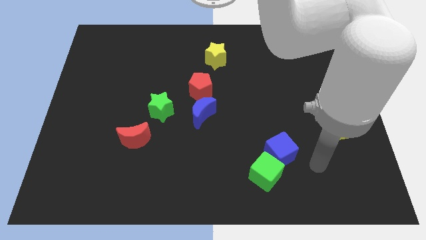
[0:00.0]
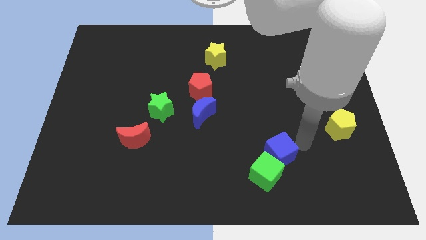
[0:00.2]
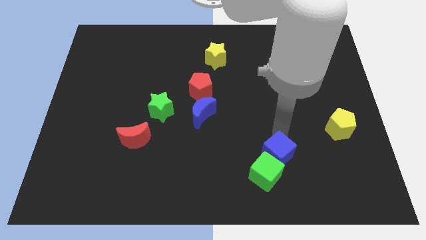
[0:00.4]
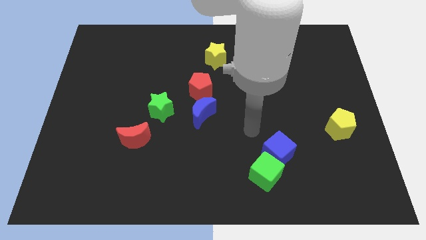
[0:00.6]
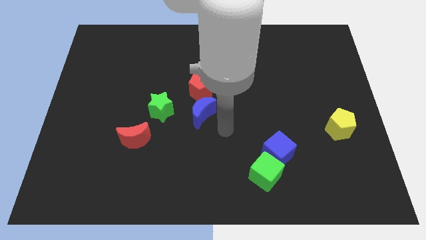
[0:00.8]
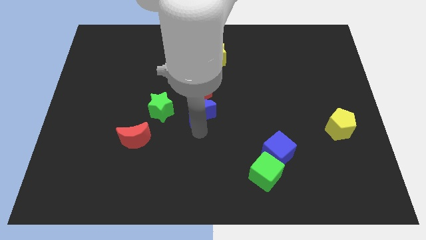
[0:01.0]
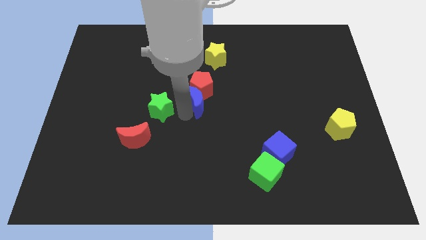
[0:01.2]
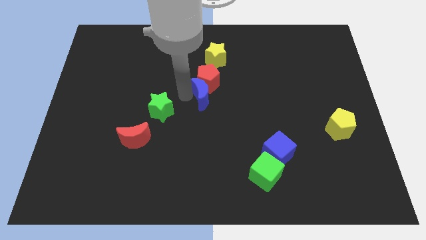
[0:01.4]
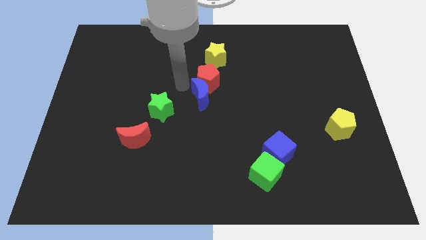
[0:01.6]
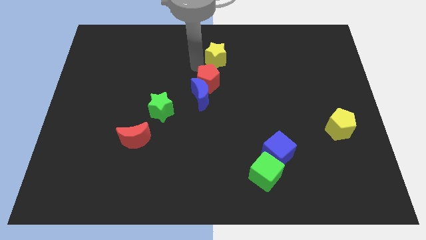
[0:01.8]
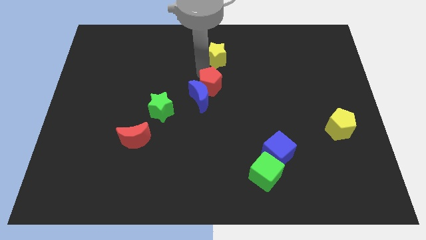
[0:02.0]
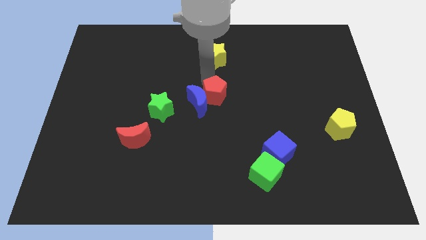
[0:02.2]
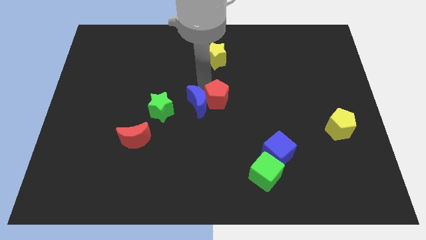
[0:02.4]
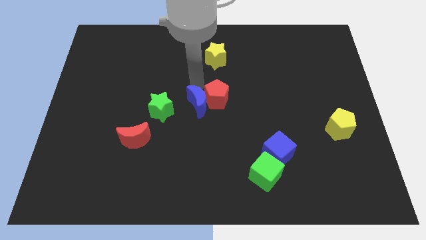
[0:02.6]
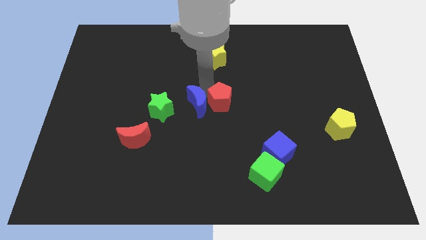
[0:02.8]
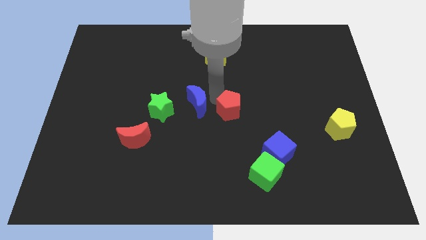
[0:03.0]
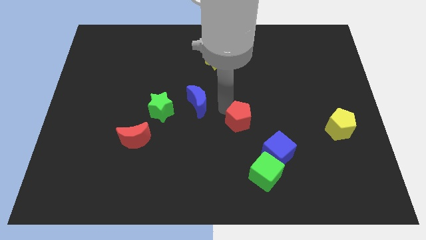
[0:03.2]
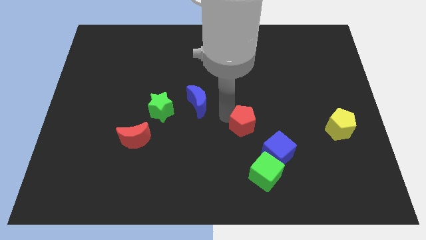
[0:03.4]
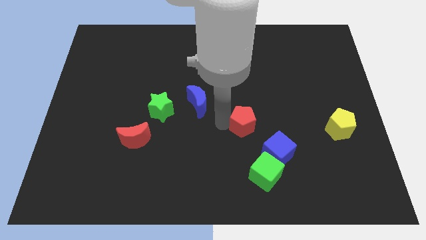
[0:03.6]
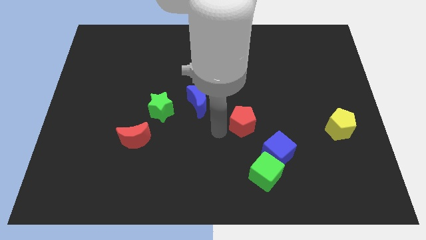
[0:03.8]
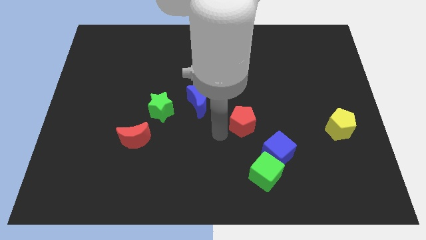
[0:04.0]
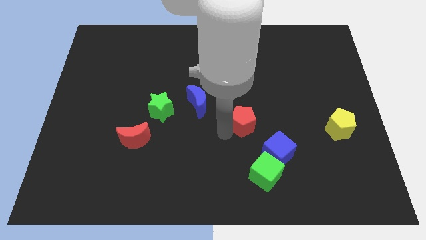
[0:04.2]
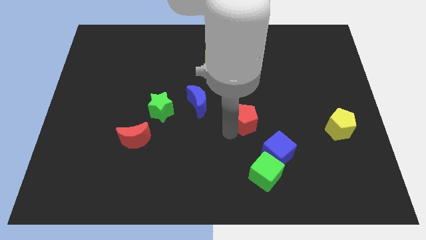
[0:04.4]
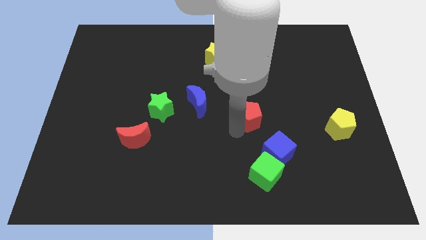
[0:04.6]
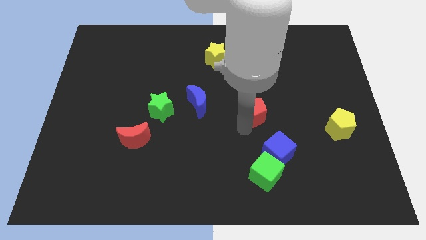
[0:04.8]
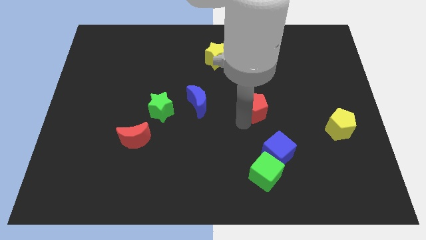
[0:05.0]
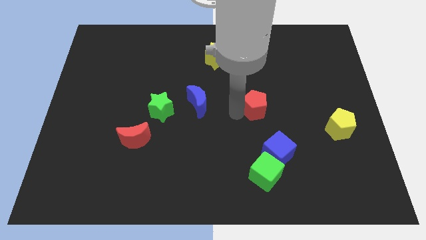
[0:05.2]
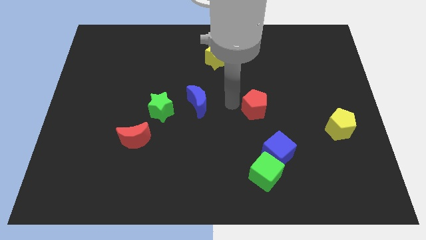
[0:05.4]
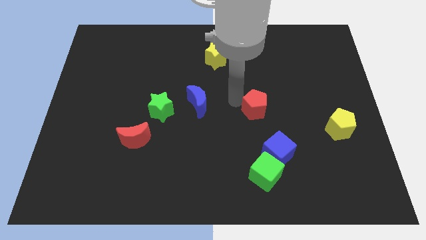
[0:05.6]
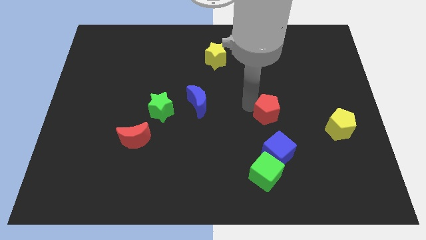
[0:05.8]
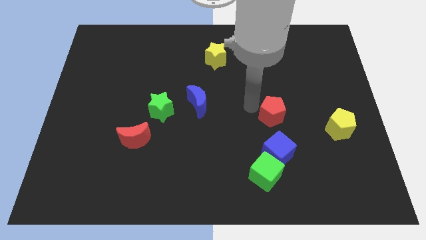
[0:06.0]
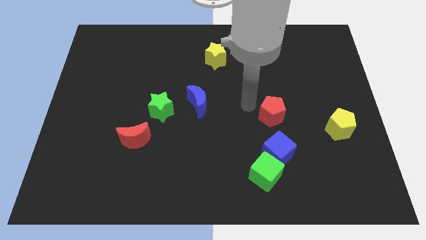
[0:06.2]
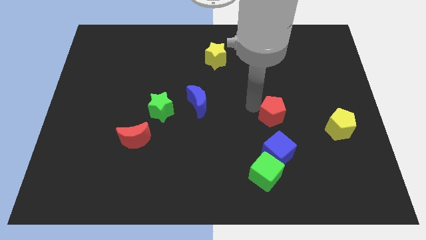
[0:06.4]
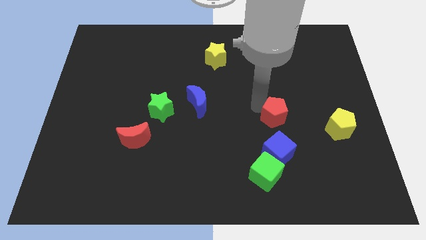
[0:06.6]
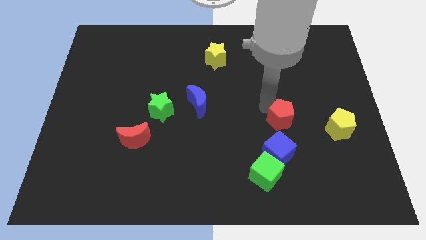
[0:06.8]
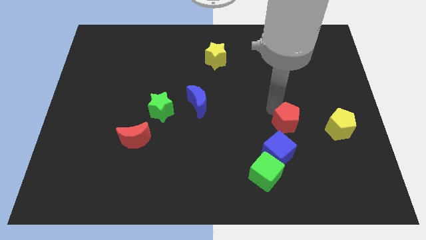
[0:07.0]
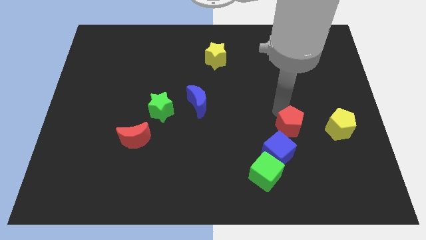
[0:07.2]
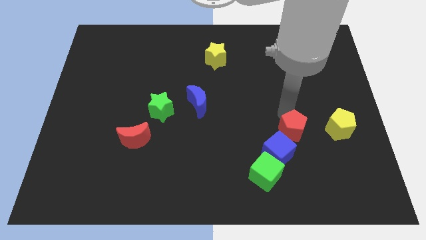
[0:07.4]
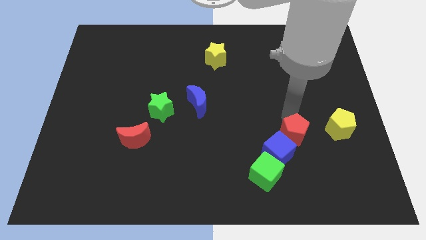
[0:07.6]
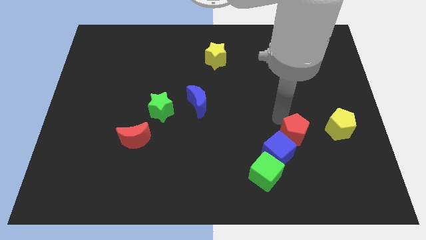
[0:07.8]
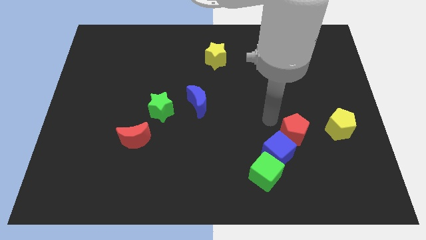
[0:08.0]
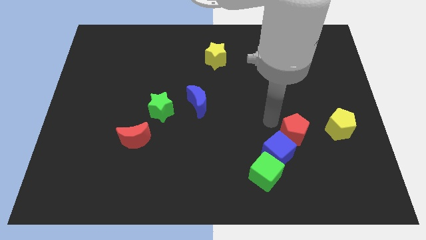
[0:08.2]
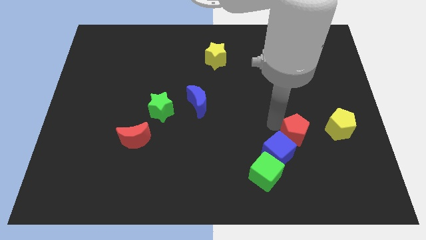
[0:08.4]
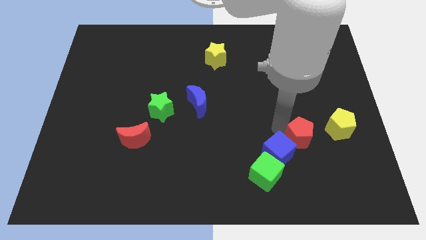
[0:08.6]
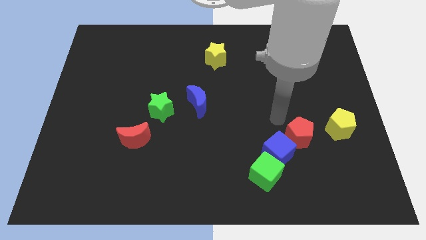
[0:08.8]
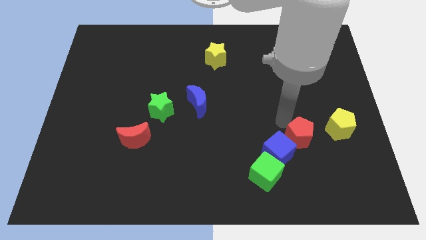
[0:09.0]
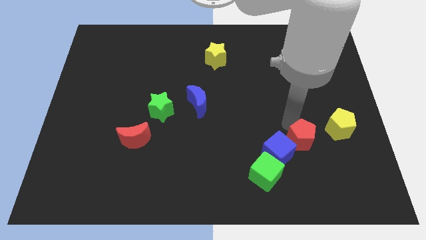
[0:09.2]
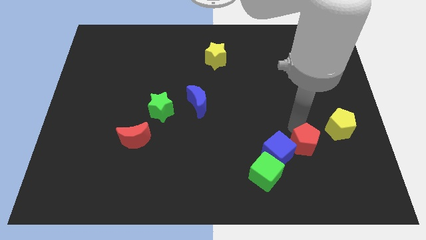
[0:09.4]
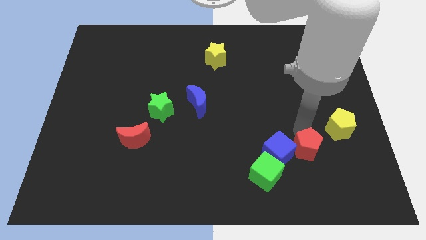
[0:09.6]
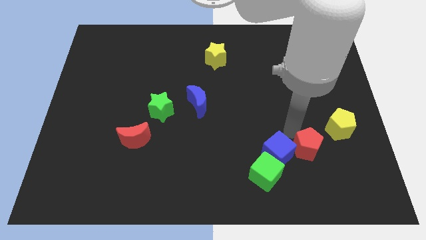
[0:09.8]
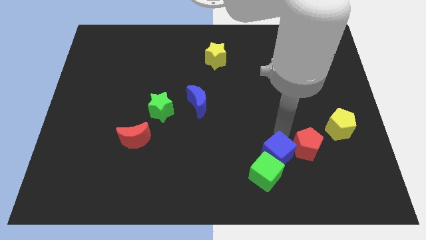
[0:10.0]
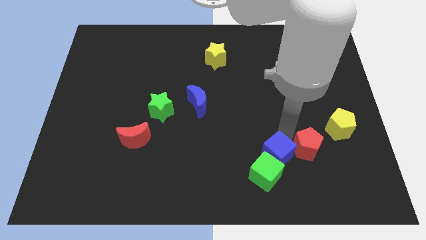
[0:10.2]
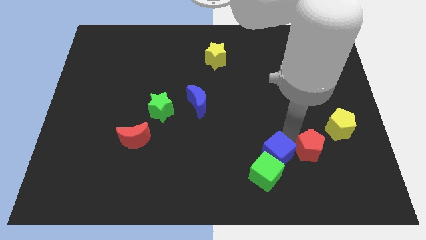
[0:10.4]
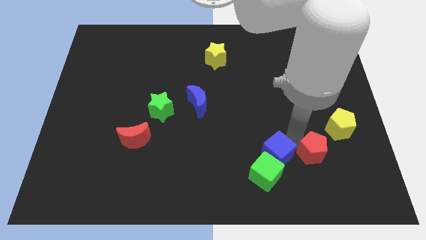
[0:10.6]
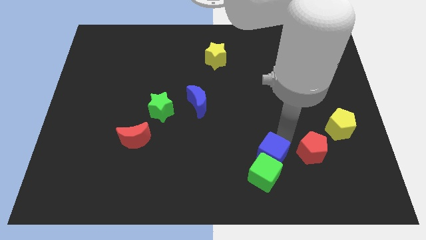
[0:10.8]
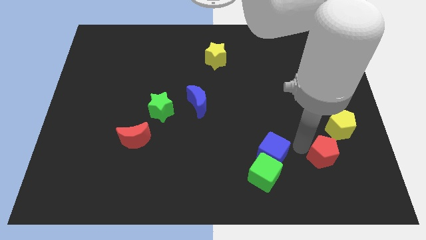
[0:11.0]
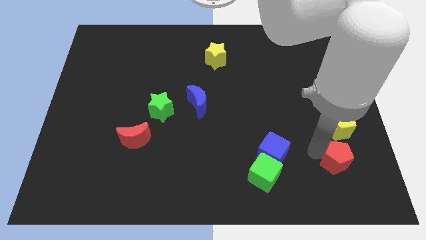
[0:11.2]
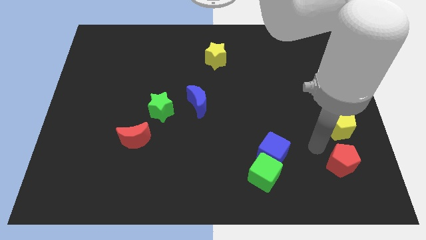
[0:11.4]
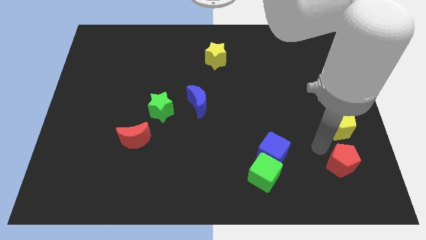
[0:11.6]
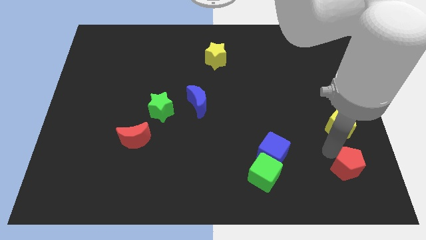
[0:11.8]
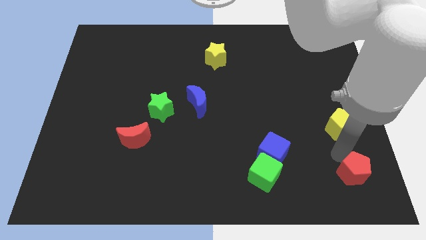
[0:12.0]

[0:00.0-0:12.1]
slide the red pentagon to the bottom right
